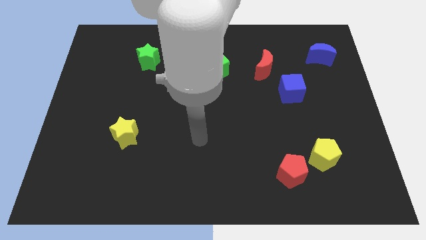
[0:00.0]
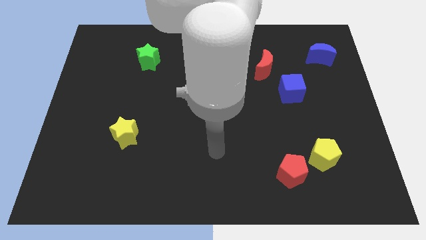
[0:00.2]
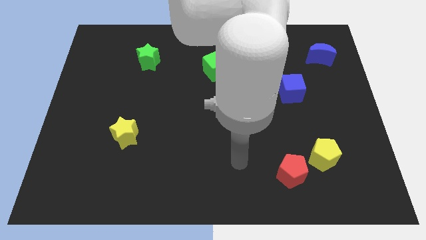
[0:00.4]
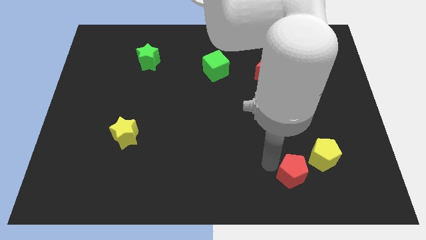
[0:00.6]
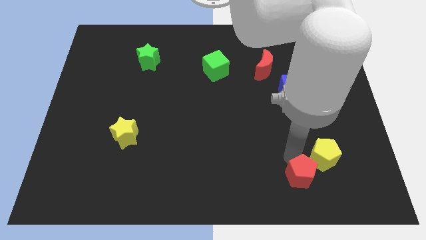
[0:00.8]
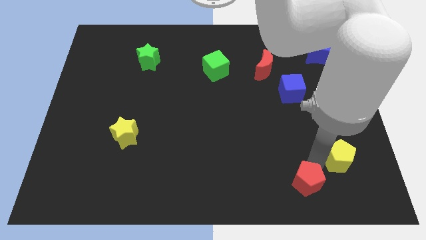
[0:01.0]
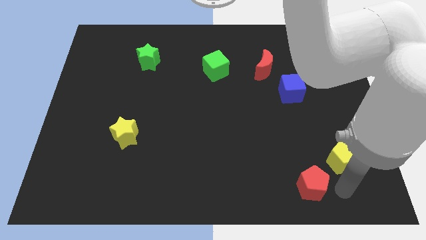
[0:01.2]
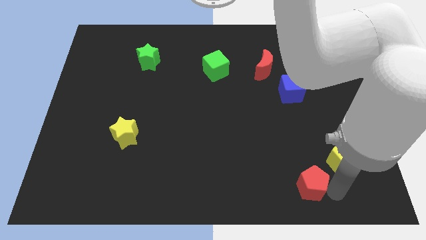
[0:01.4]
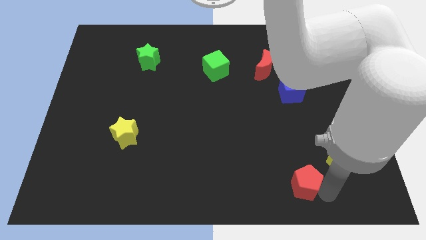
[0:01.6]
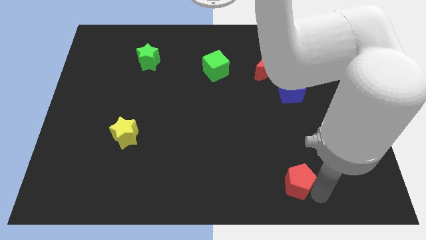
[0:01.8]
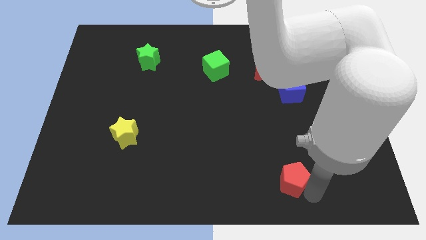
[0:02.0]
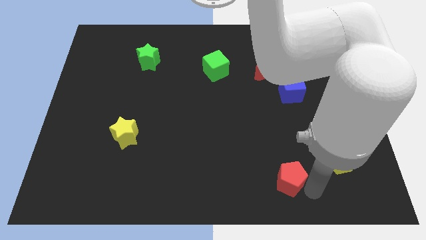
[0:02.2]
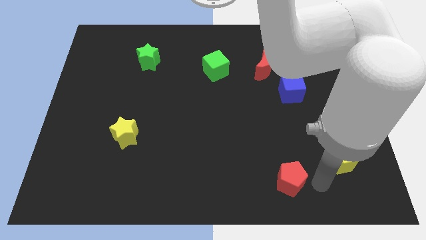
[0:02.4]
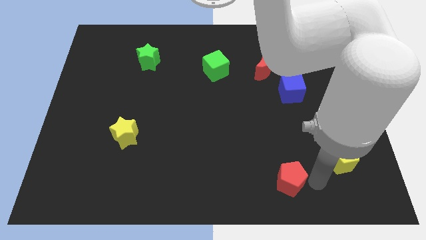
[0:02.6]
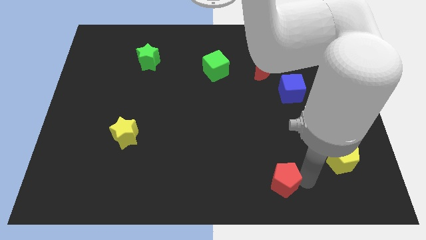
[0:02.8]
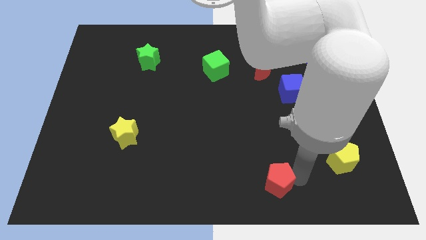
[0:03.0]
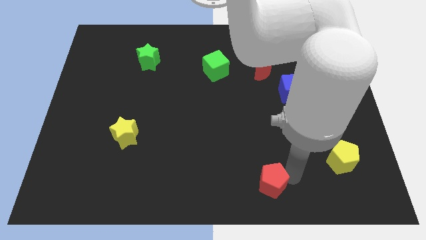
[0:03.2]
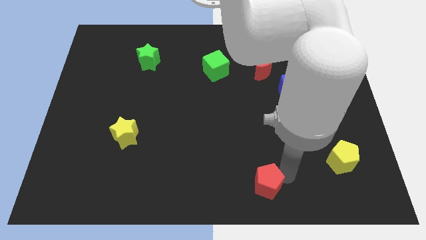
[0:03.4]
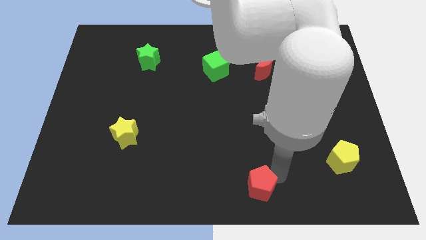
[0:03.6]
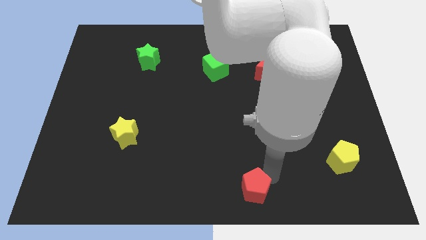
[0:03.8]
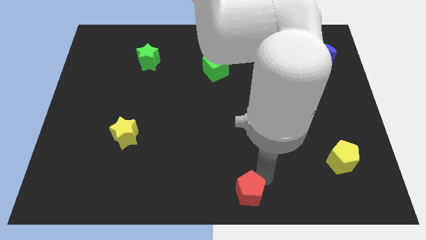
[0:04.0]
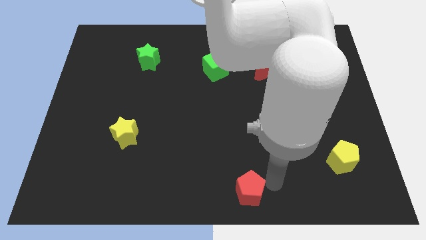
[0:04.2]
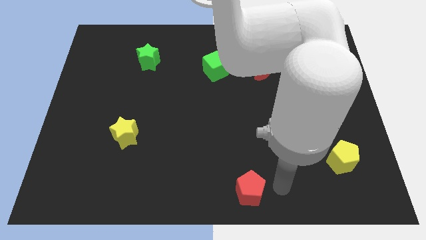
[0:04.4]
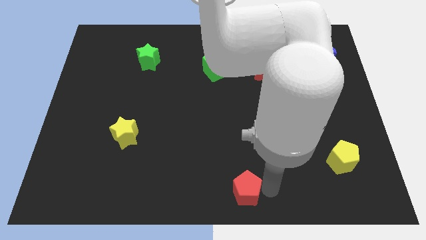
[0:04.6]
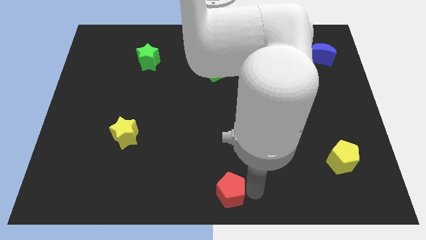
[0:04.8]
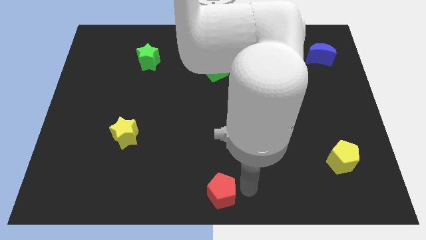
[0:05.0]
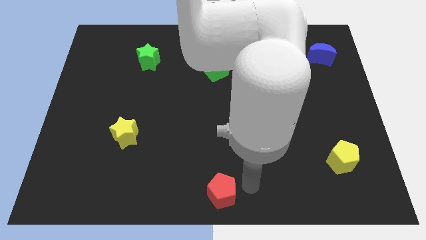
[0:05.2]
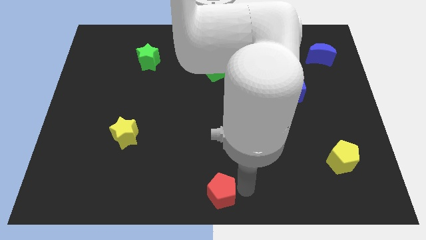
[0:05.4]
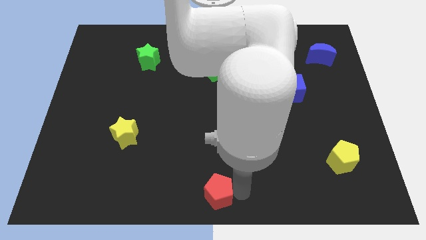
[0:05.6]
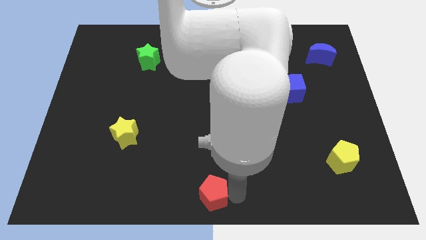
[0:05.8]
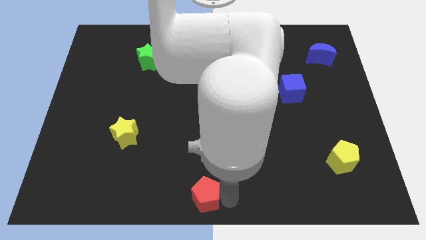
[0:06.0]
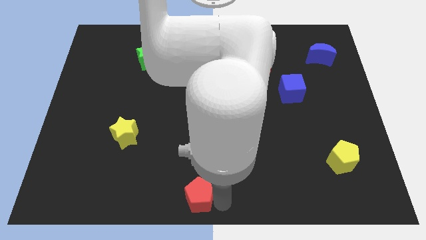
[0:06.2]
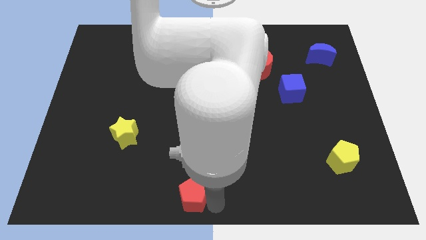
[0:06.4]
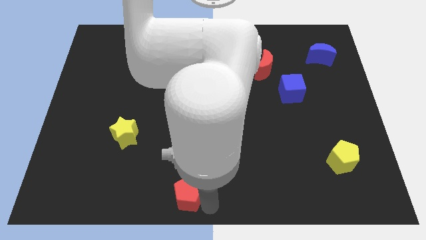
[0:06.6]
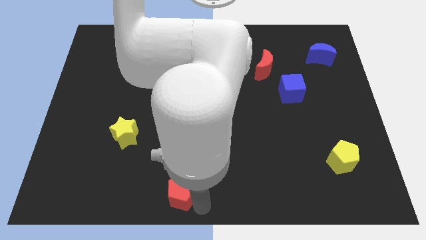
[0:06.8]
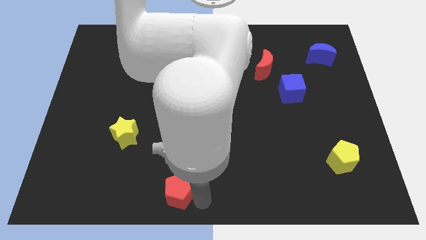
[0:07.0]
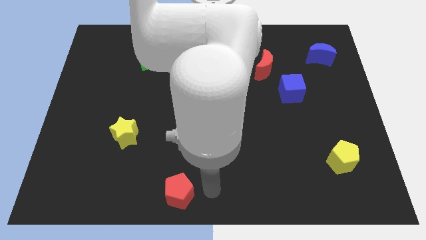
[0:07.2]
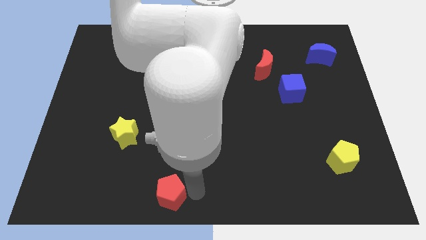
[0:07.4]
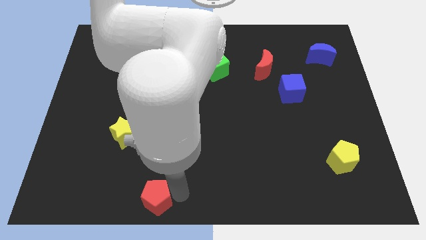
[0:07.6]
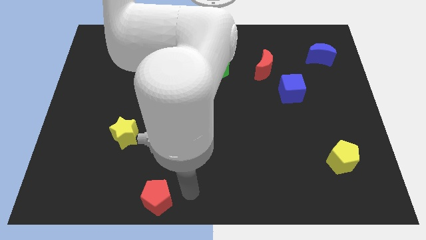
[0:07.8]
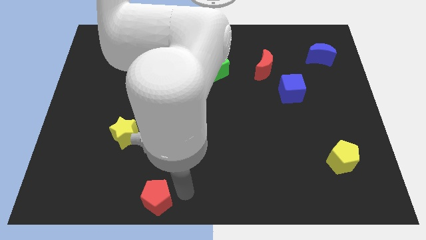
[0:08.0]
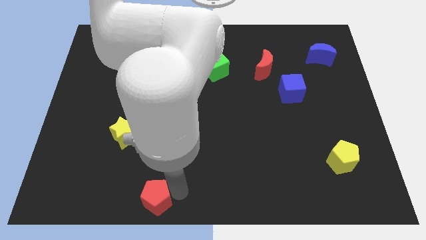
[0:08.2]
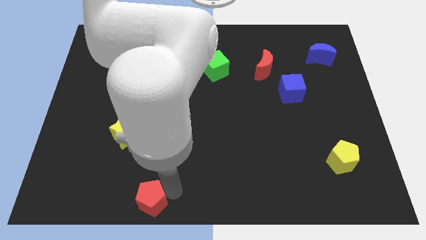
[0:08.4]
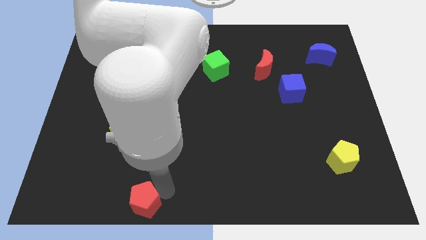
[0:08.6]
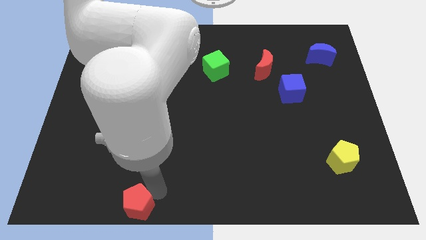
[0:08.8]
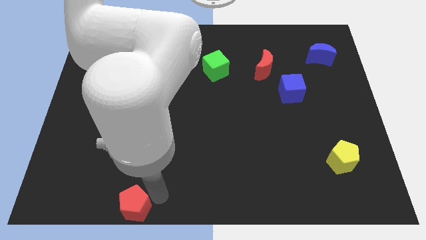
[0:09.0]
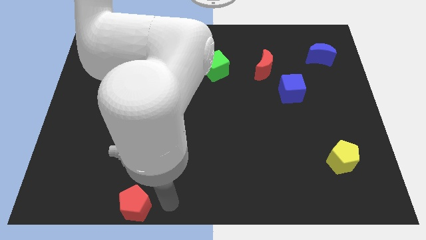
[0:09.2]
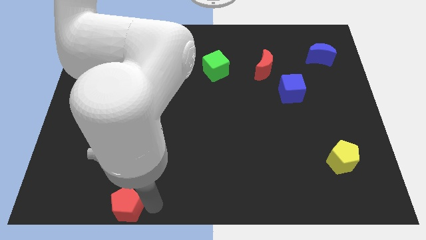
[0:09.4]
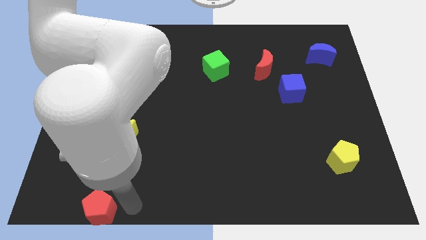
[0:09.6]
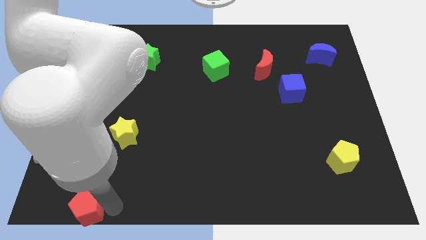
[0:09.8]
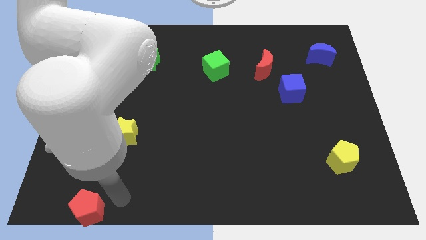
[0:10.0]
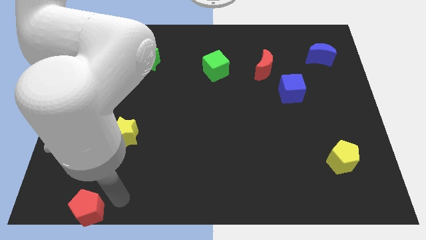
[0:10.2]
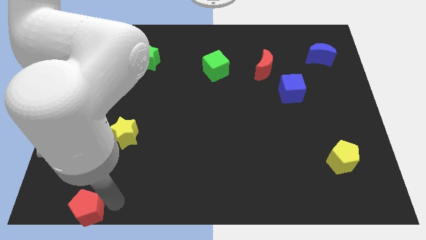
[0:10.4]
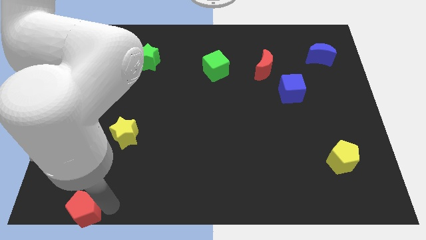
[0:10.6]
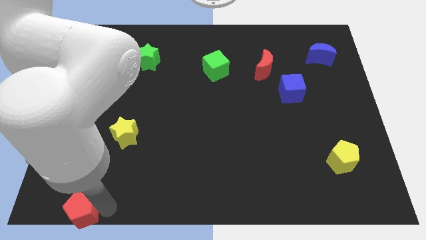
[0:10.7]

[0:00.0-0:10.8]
move the red pentagon to the bottom left of the board
